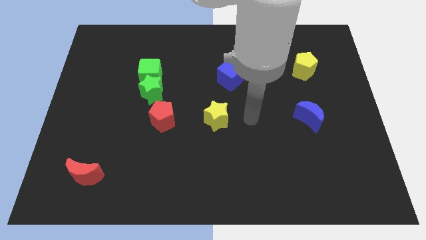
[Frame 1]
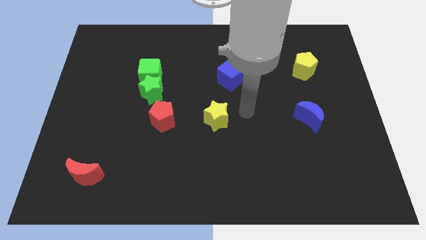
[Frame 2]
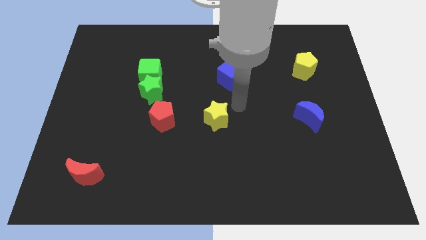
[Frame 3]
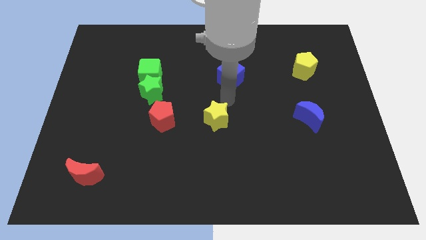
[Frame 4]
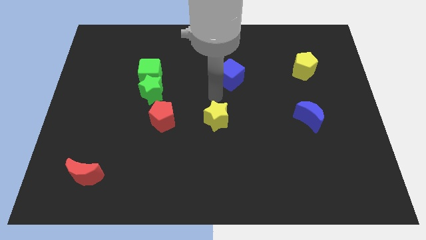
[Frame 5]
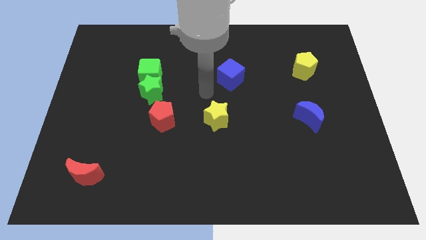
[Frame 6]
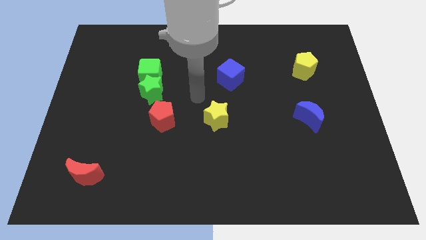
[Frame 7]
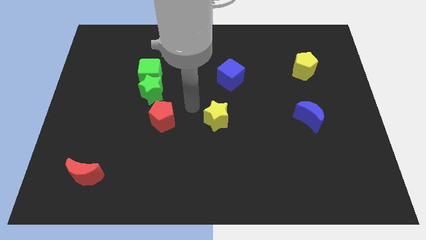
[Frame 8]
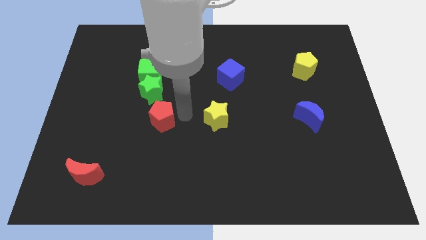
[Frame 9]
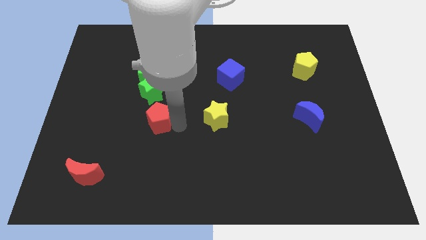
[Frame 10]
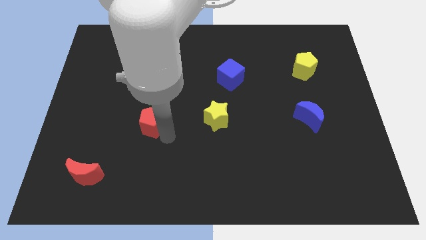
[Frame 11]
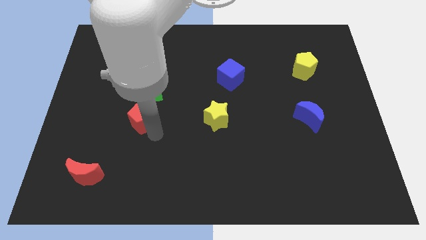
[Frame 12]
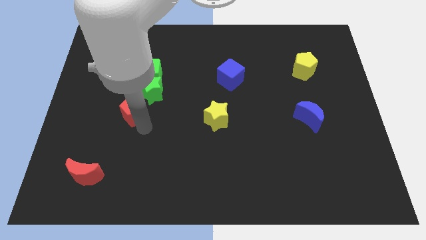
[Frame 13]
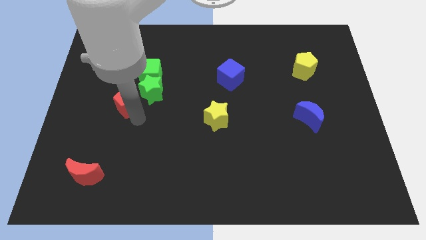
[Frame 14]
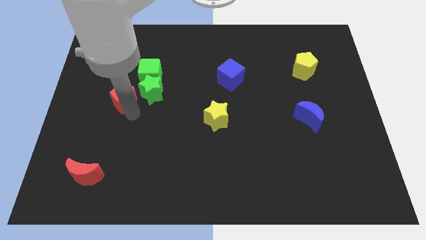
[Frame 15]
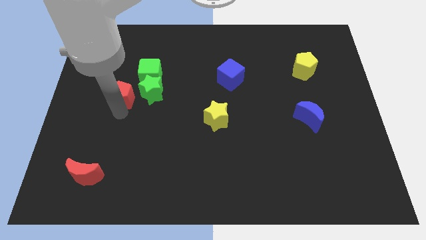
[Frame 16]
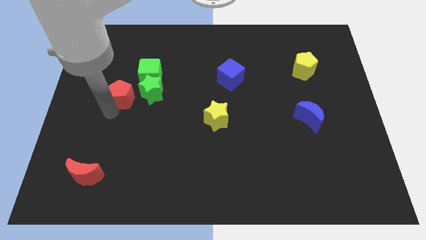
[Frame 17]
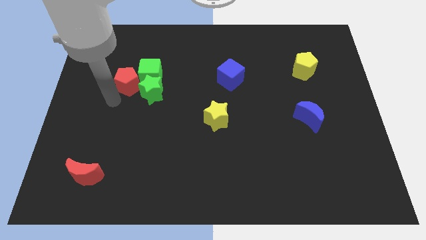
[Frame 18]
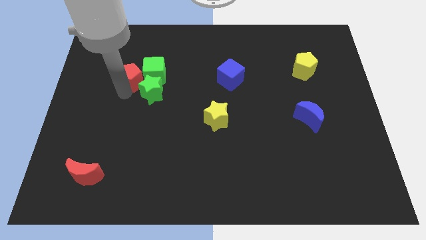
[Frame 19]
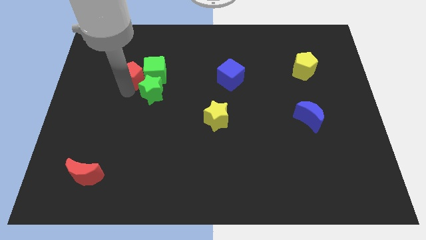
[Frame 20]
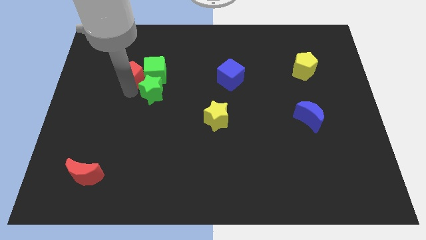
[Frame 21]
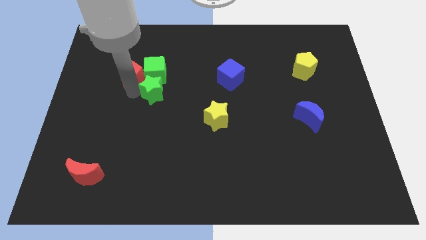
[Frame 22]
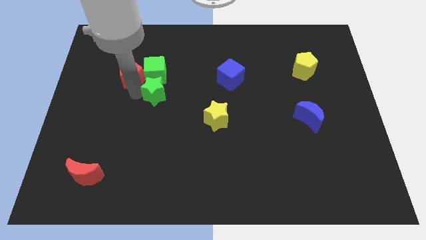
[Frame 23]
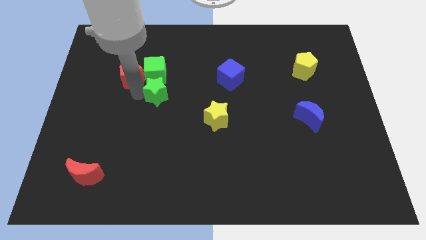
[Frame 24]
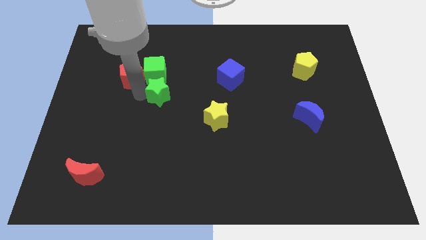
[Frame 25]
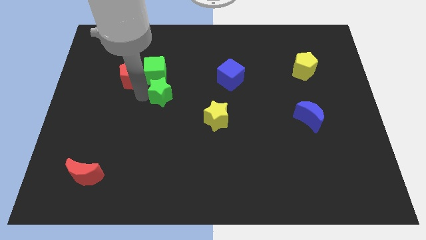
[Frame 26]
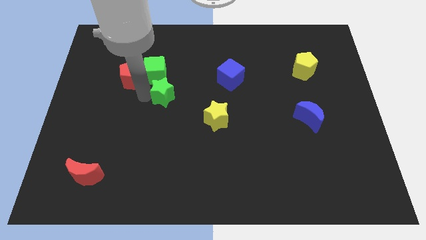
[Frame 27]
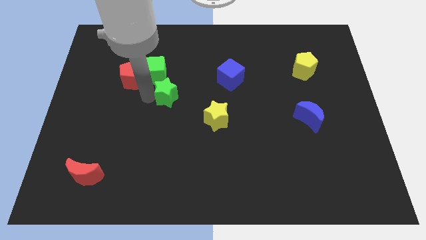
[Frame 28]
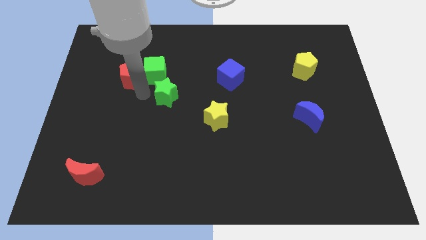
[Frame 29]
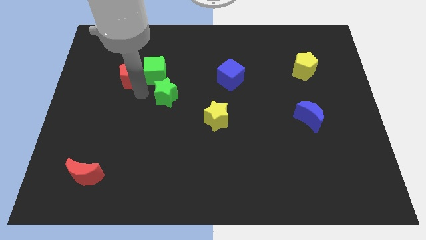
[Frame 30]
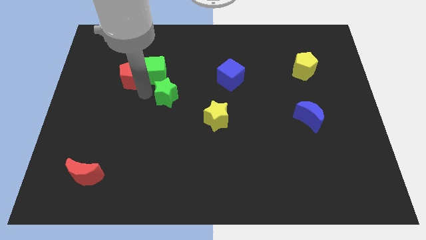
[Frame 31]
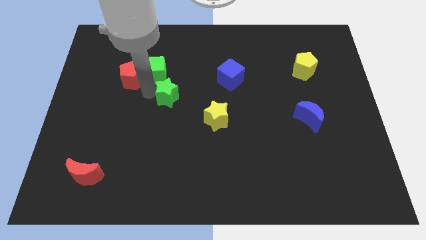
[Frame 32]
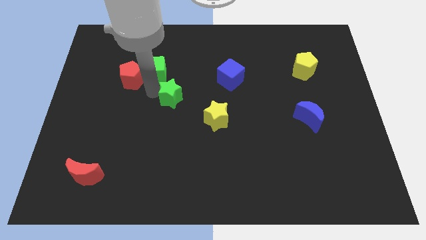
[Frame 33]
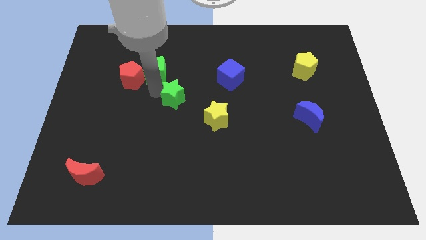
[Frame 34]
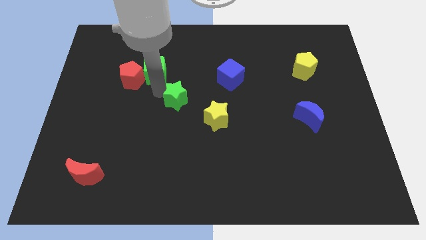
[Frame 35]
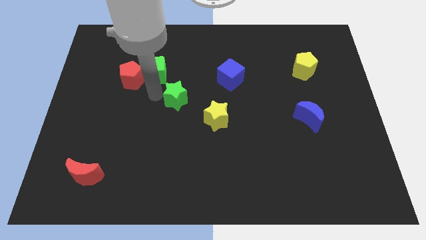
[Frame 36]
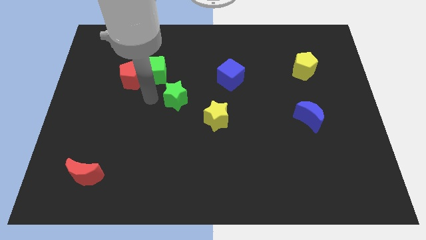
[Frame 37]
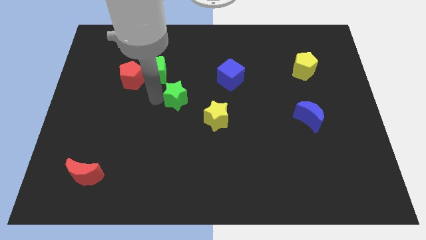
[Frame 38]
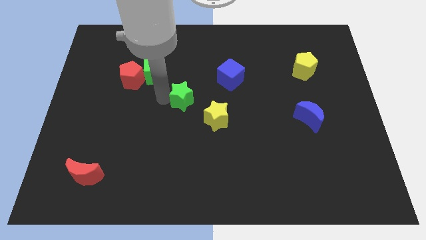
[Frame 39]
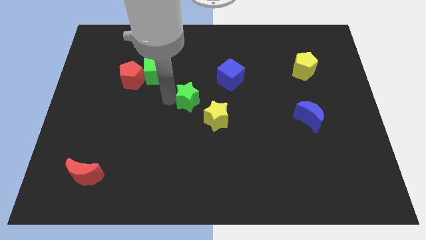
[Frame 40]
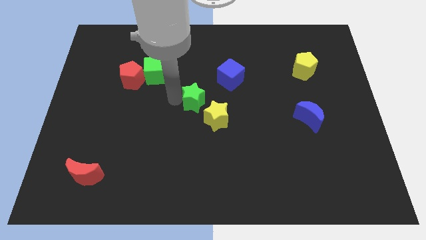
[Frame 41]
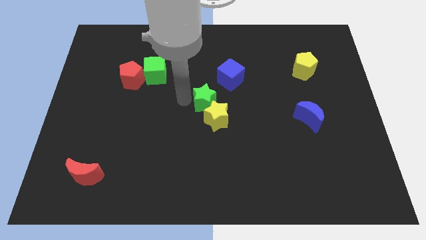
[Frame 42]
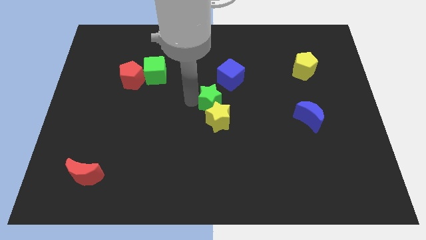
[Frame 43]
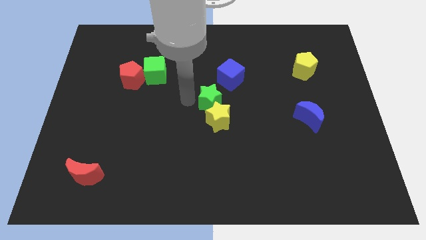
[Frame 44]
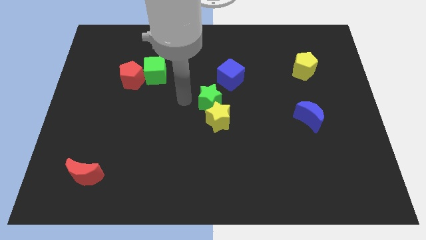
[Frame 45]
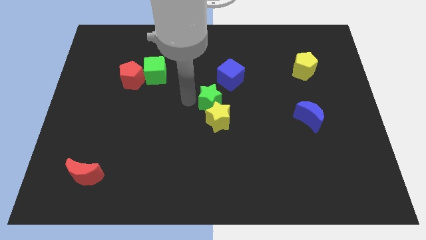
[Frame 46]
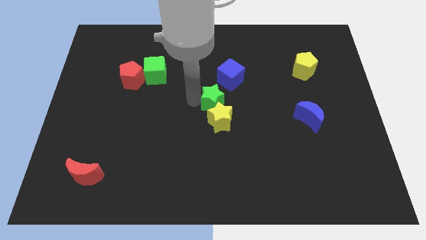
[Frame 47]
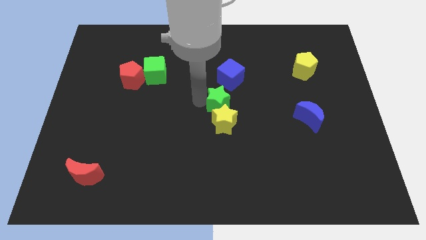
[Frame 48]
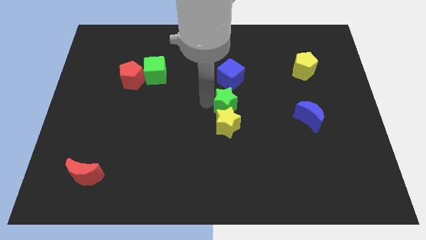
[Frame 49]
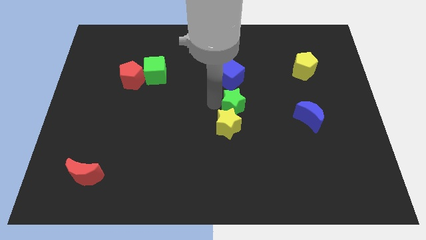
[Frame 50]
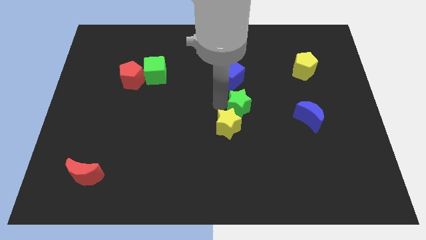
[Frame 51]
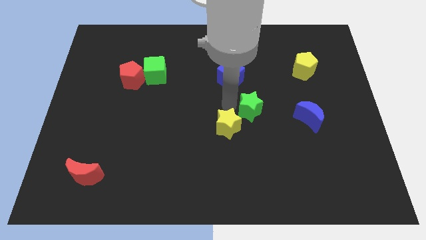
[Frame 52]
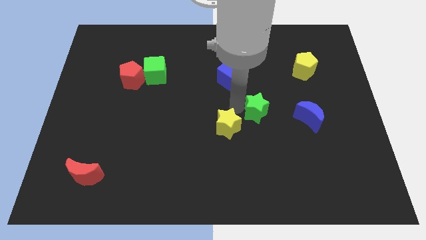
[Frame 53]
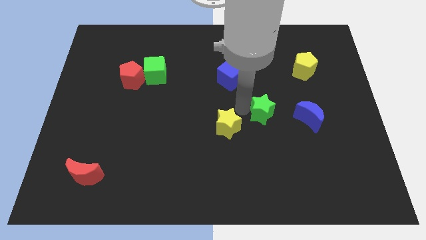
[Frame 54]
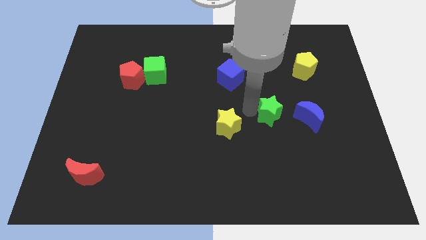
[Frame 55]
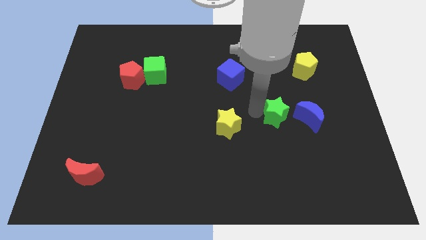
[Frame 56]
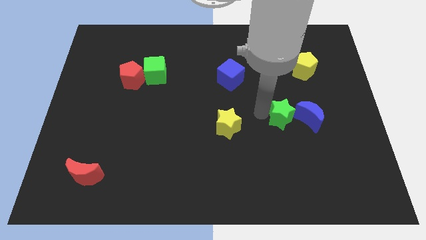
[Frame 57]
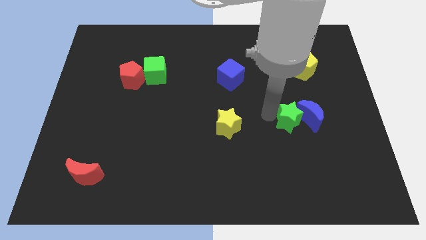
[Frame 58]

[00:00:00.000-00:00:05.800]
push the green star next to the blue moon

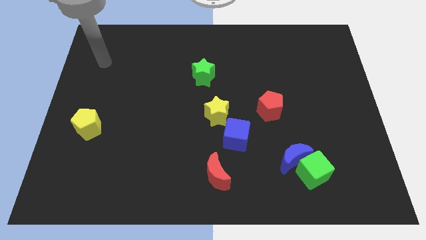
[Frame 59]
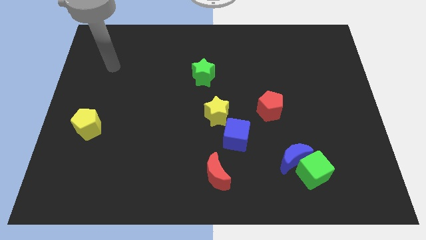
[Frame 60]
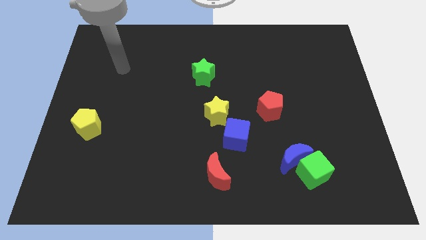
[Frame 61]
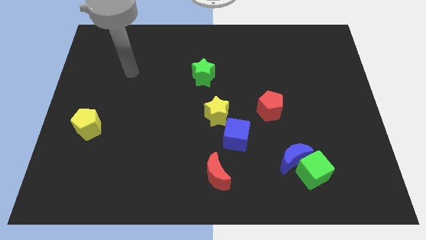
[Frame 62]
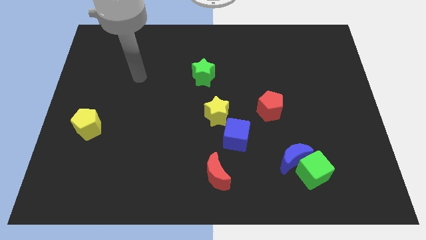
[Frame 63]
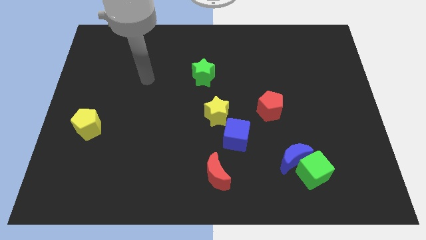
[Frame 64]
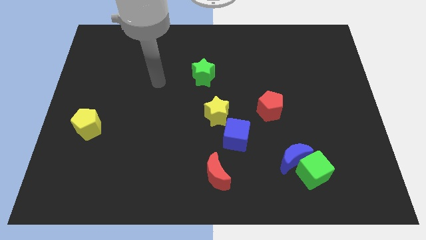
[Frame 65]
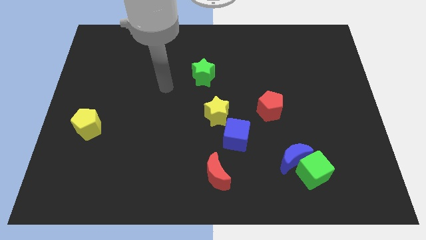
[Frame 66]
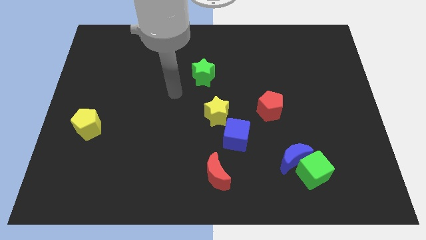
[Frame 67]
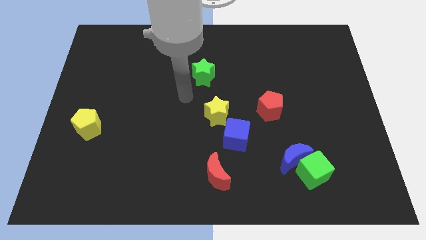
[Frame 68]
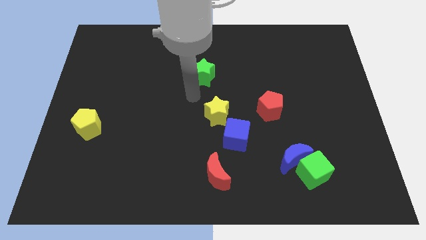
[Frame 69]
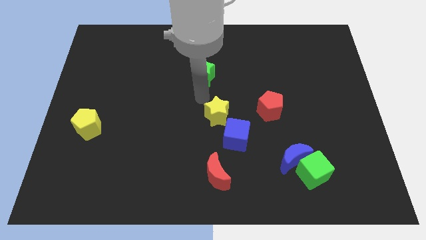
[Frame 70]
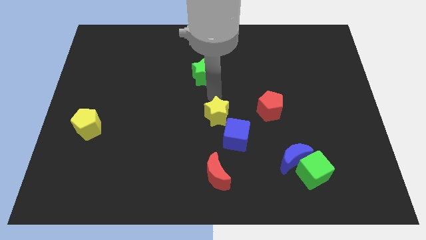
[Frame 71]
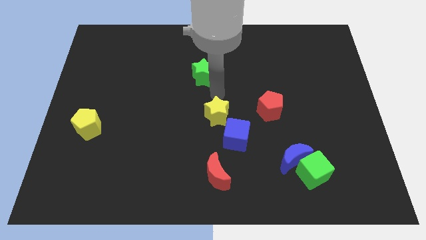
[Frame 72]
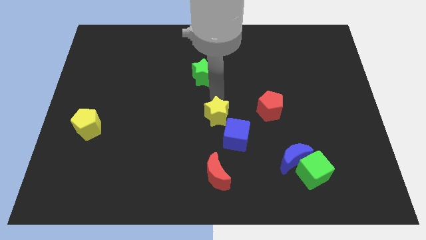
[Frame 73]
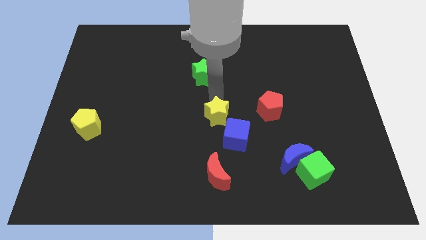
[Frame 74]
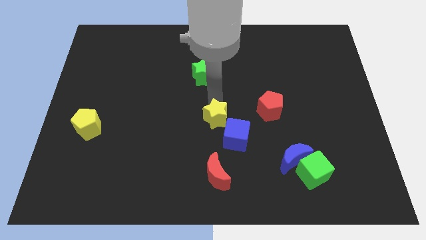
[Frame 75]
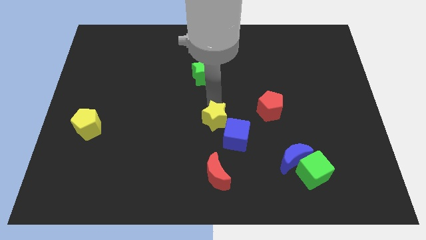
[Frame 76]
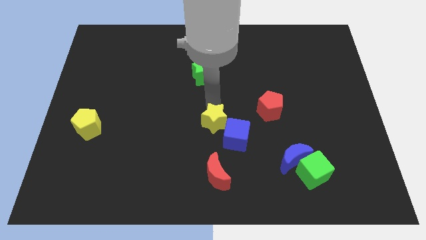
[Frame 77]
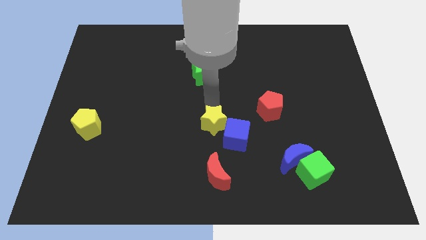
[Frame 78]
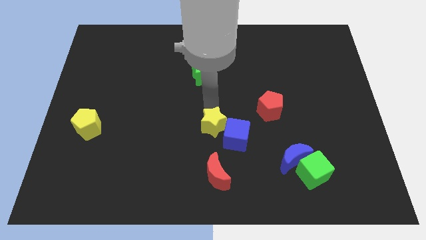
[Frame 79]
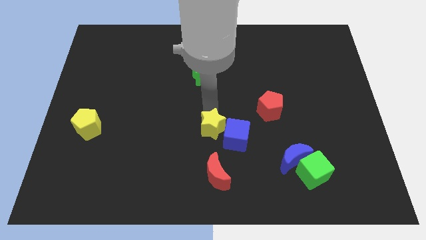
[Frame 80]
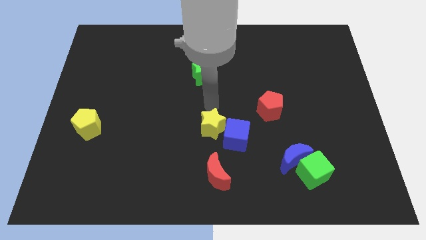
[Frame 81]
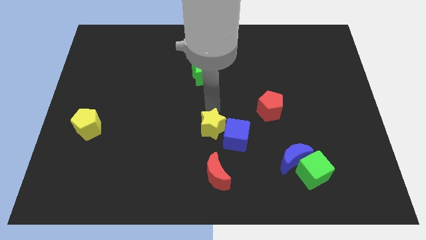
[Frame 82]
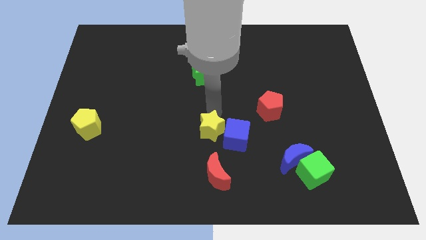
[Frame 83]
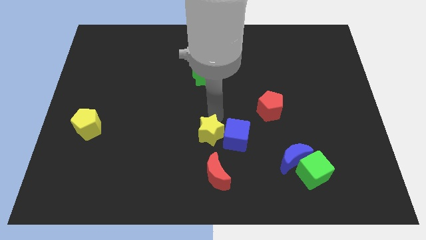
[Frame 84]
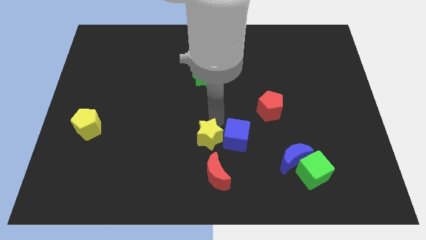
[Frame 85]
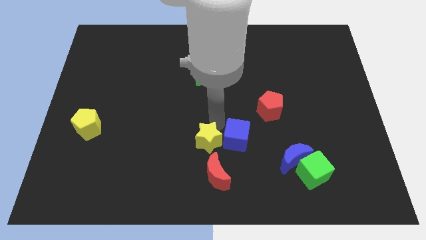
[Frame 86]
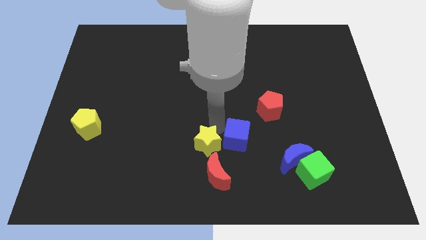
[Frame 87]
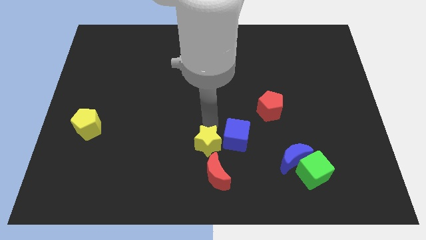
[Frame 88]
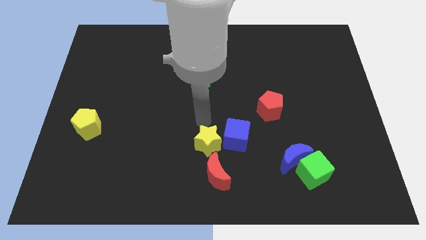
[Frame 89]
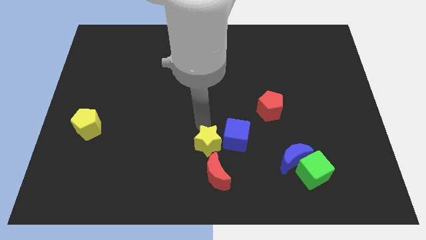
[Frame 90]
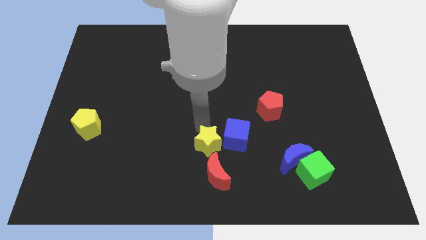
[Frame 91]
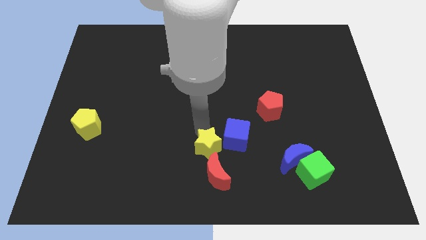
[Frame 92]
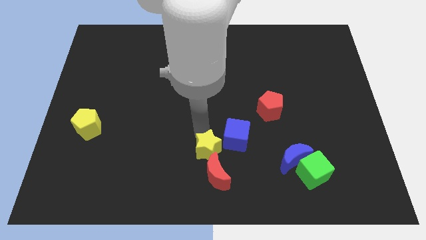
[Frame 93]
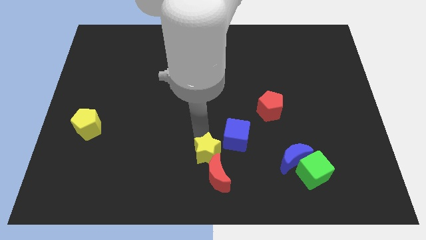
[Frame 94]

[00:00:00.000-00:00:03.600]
move the yellow star next to the red moon
